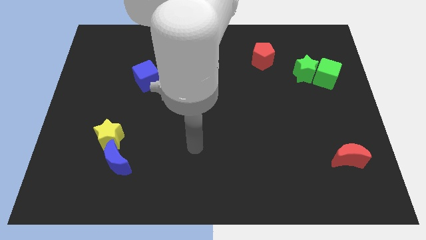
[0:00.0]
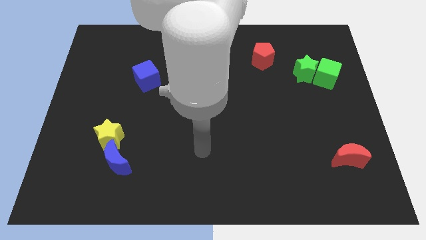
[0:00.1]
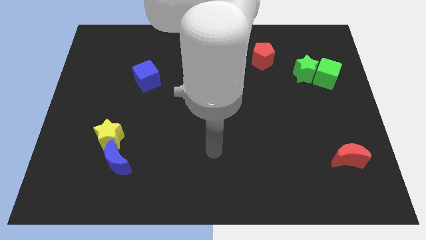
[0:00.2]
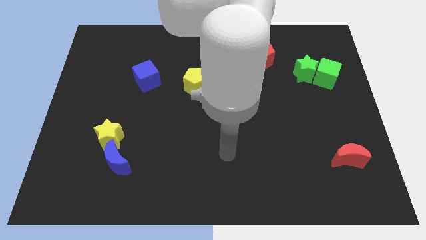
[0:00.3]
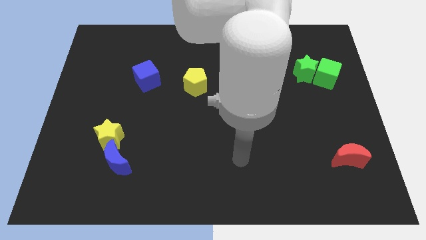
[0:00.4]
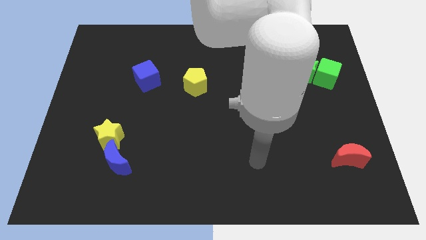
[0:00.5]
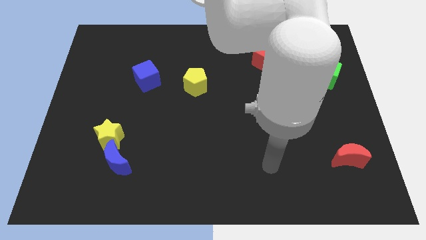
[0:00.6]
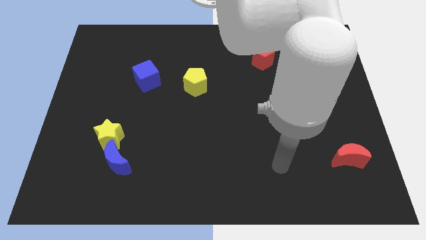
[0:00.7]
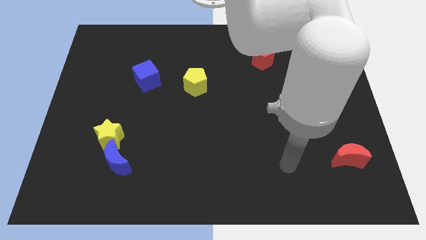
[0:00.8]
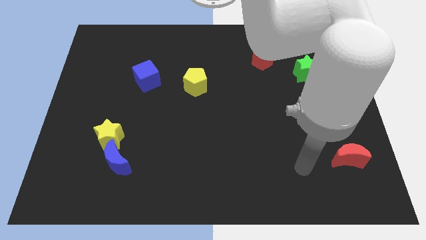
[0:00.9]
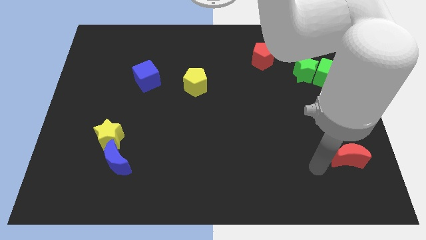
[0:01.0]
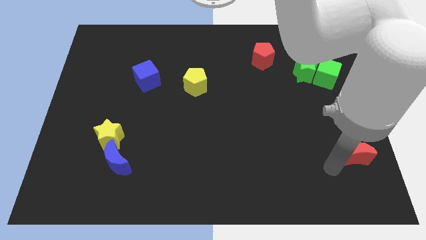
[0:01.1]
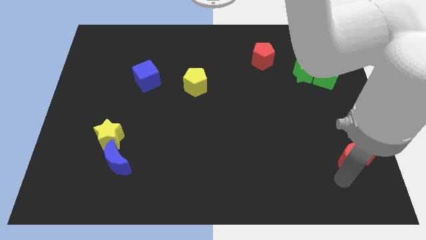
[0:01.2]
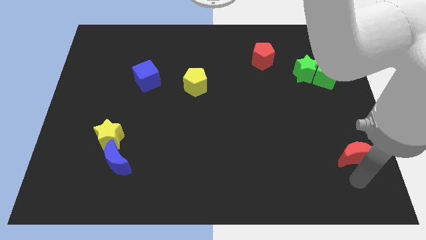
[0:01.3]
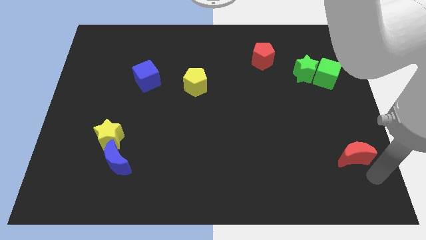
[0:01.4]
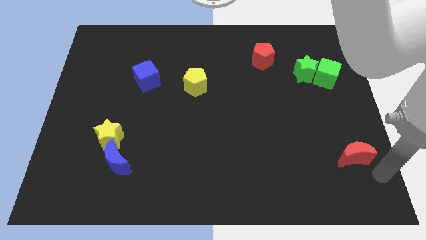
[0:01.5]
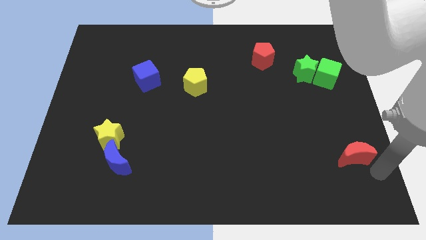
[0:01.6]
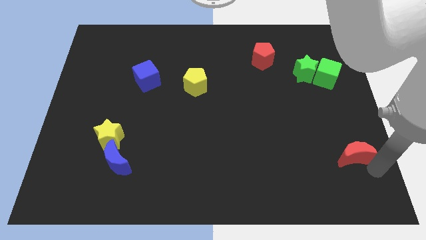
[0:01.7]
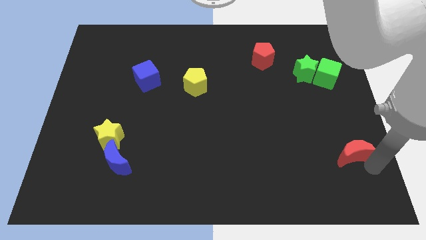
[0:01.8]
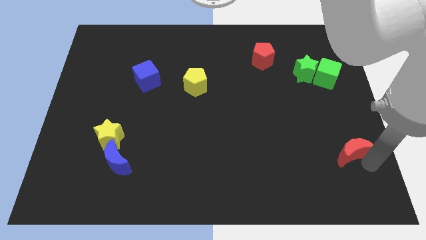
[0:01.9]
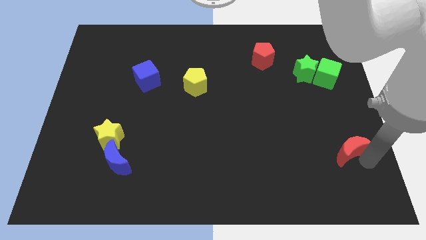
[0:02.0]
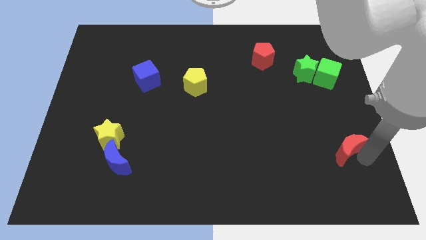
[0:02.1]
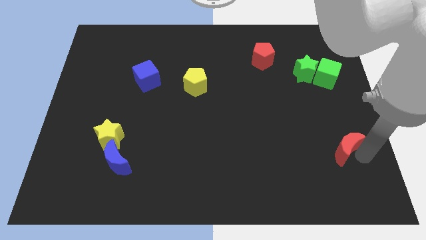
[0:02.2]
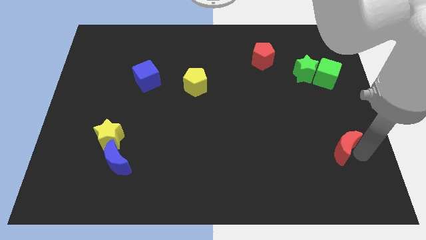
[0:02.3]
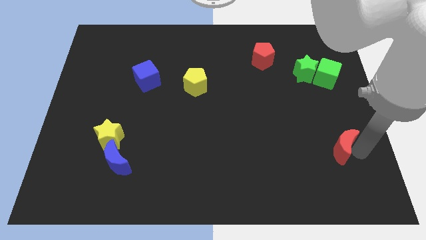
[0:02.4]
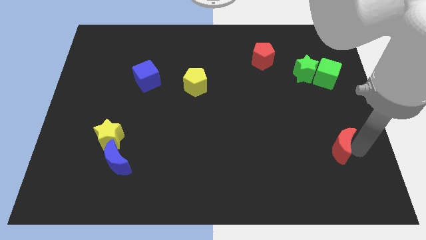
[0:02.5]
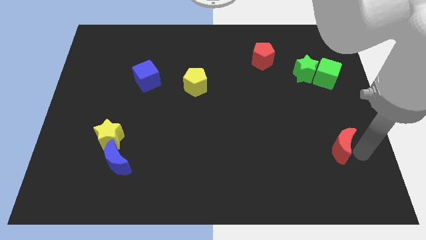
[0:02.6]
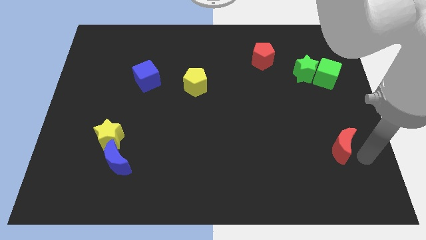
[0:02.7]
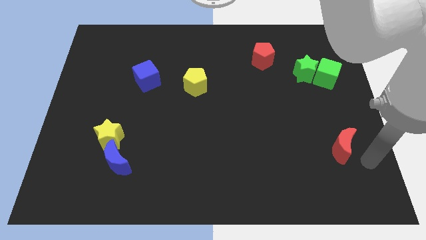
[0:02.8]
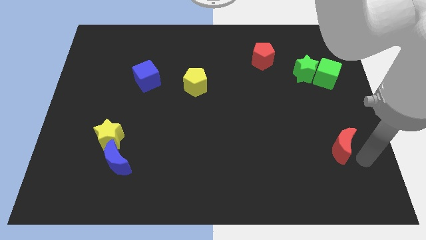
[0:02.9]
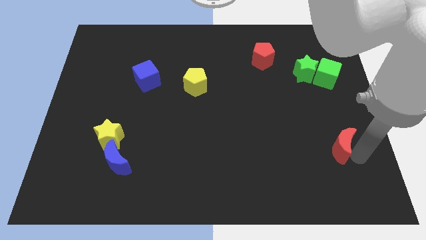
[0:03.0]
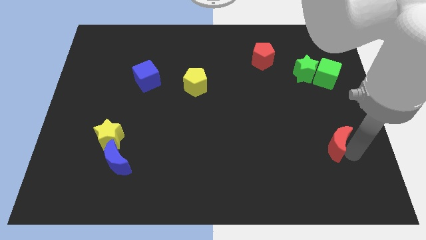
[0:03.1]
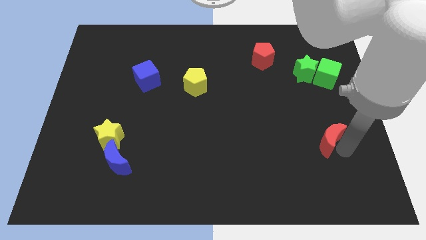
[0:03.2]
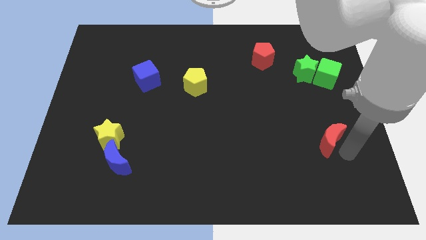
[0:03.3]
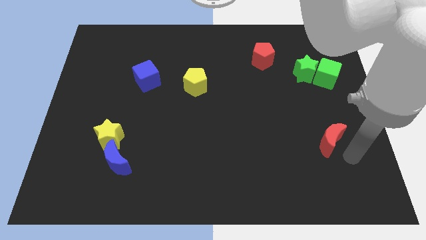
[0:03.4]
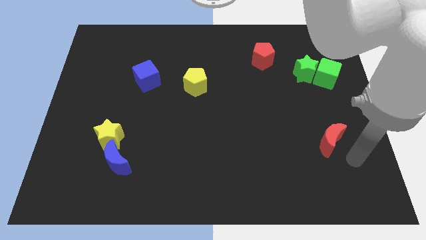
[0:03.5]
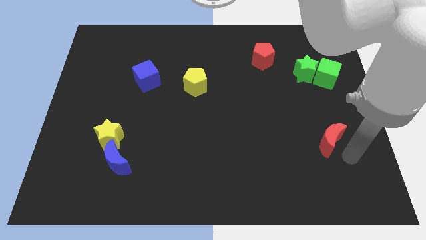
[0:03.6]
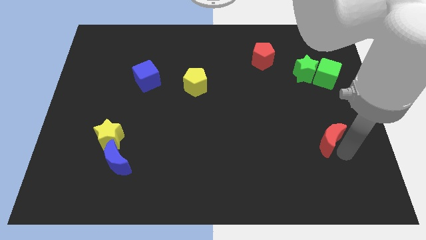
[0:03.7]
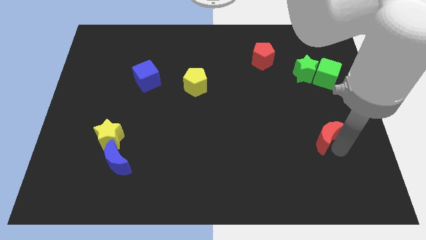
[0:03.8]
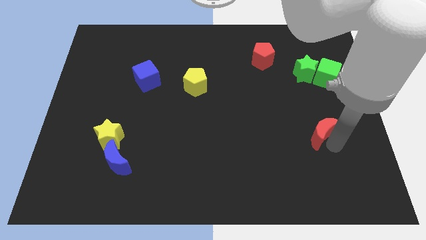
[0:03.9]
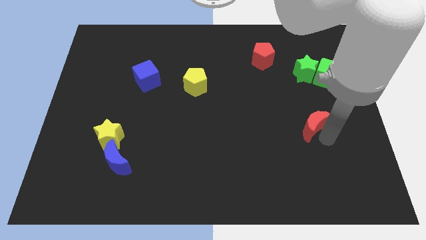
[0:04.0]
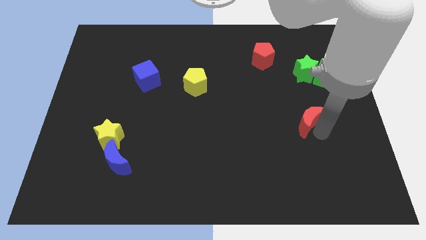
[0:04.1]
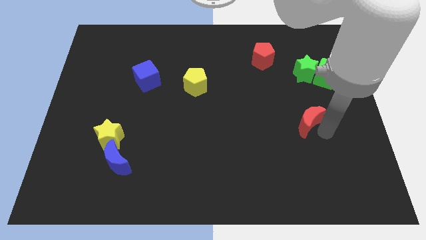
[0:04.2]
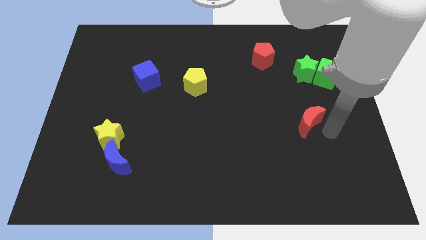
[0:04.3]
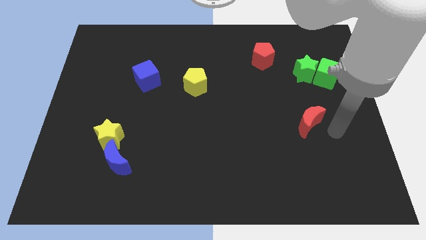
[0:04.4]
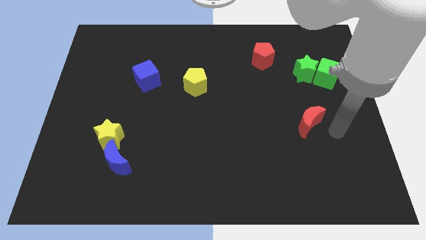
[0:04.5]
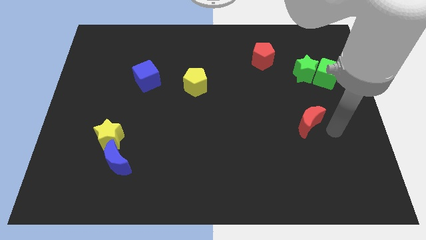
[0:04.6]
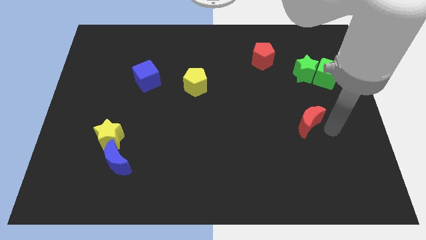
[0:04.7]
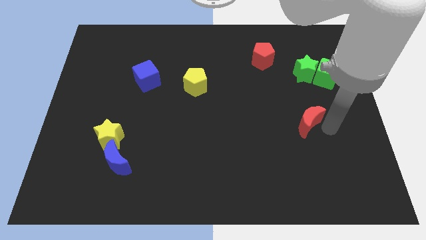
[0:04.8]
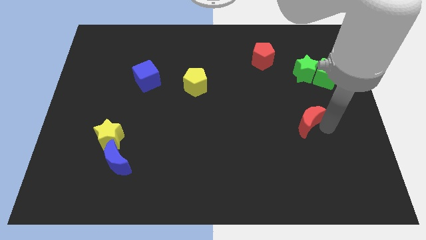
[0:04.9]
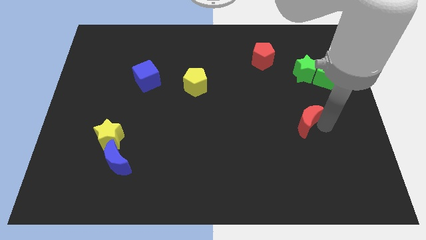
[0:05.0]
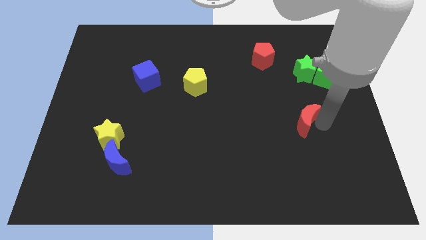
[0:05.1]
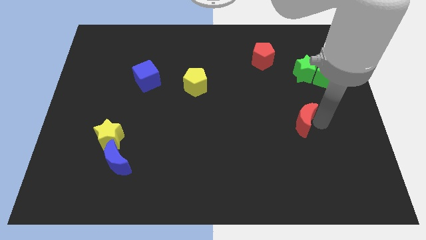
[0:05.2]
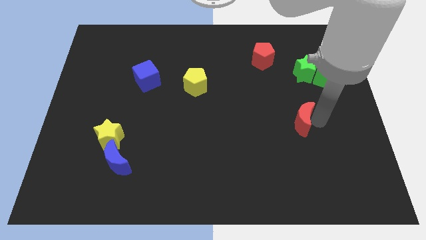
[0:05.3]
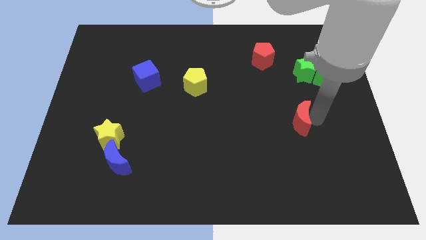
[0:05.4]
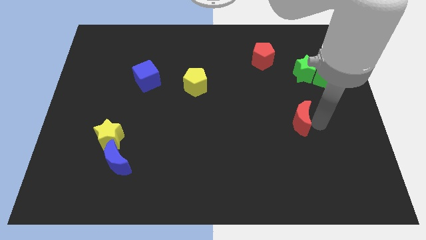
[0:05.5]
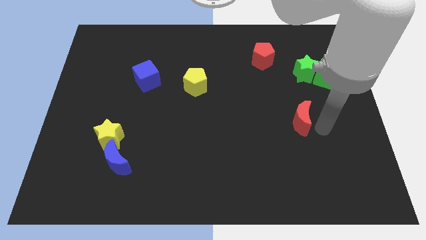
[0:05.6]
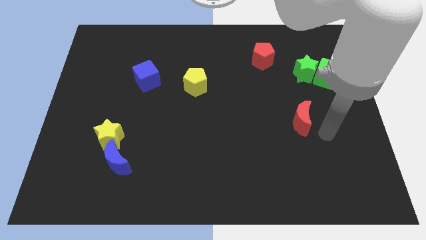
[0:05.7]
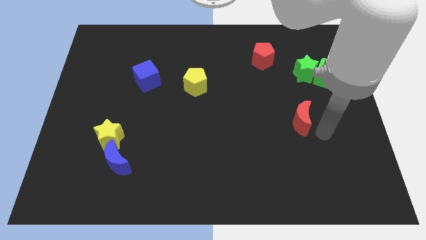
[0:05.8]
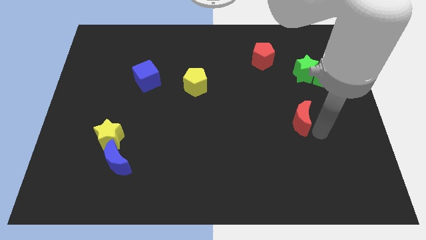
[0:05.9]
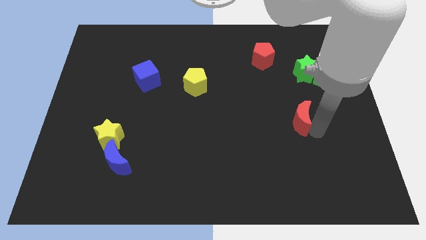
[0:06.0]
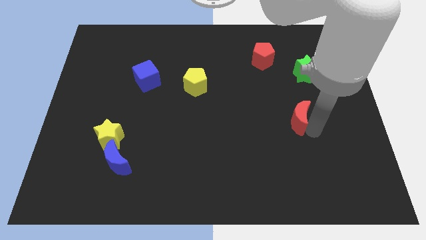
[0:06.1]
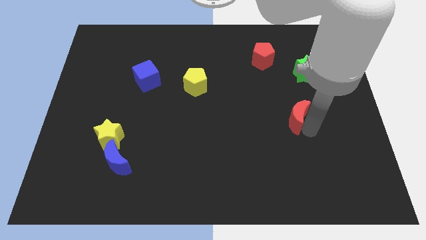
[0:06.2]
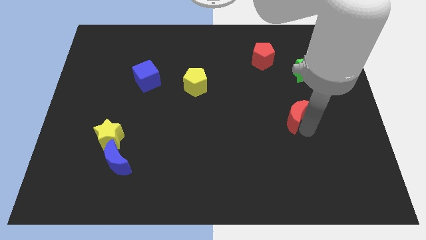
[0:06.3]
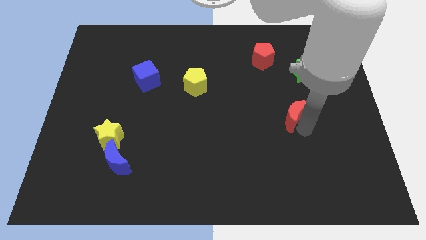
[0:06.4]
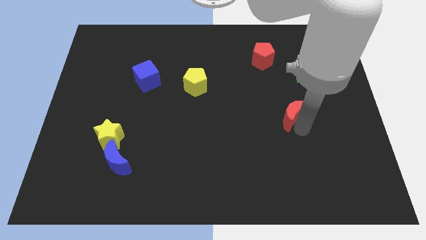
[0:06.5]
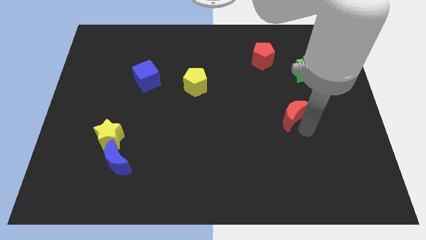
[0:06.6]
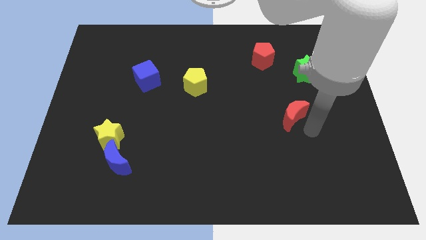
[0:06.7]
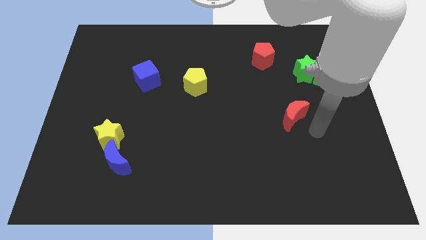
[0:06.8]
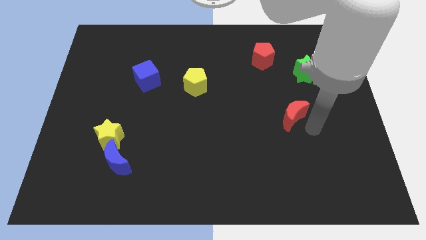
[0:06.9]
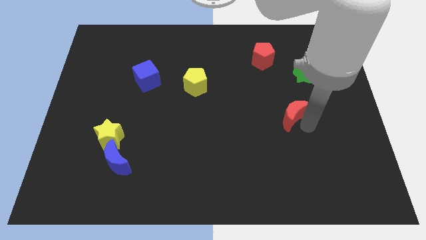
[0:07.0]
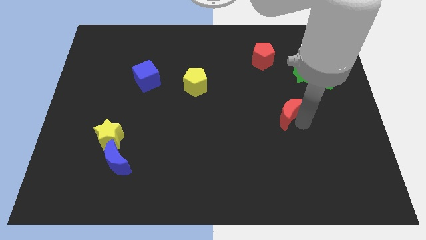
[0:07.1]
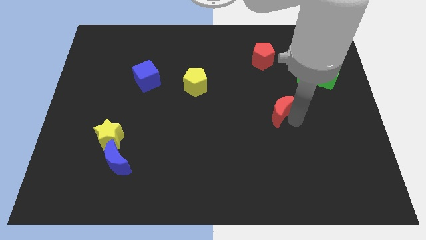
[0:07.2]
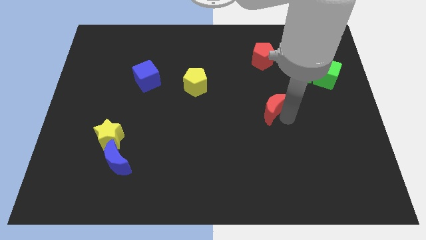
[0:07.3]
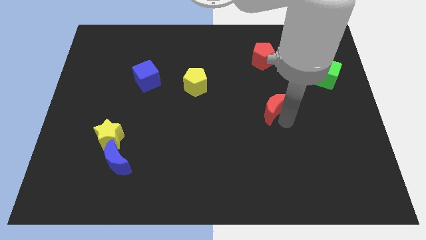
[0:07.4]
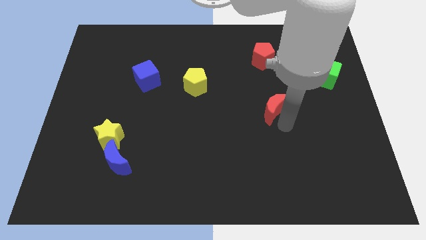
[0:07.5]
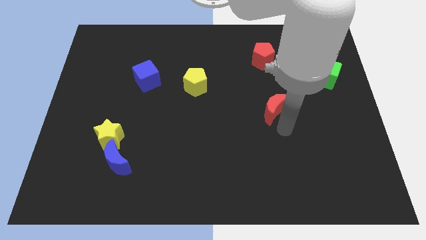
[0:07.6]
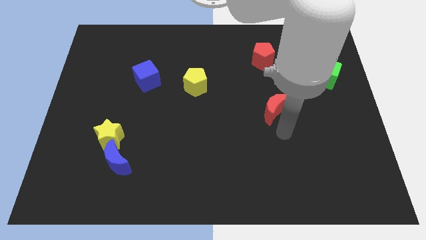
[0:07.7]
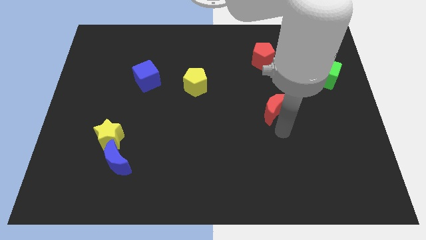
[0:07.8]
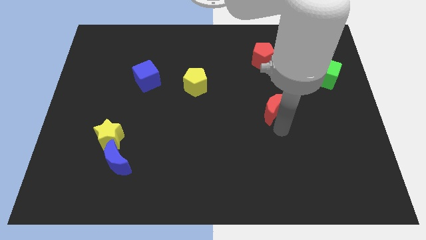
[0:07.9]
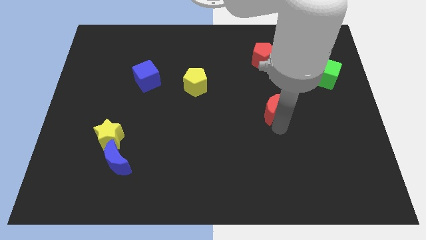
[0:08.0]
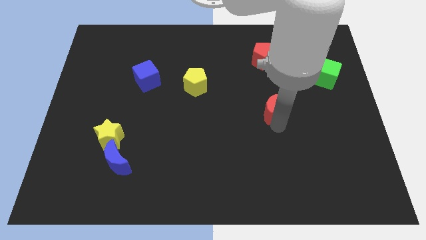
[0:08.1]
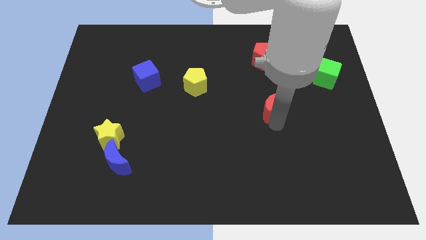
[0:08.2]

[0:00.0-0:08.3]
move the red moon diagonally upwards and left
